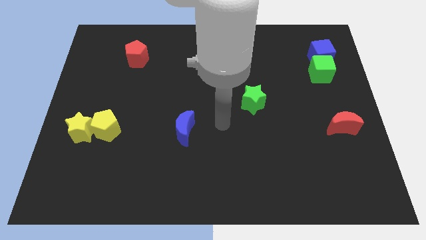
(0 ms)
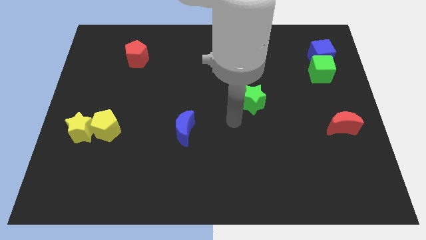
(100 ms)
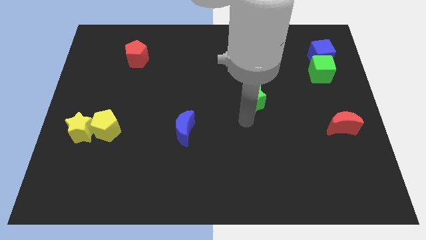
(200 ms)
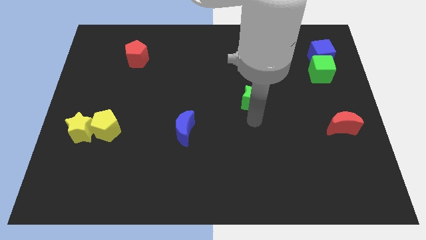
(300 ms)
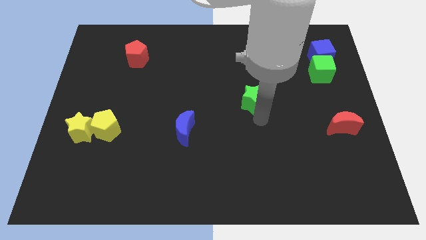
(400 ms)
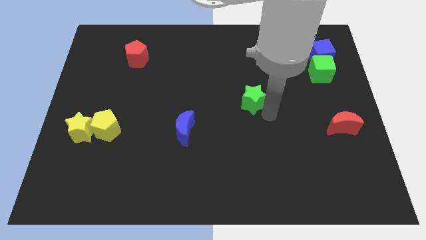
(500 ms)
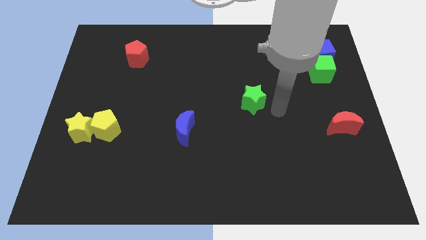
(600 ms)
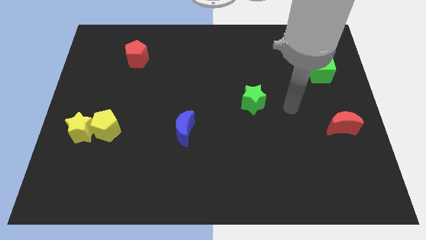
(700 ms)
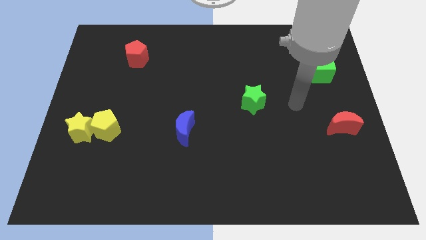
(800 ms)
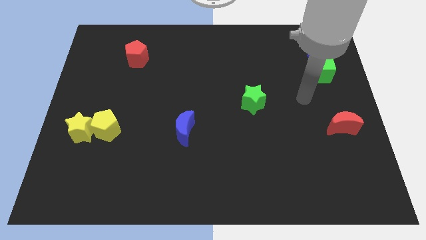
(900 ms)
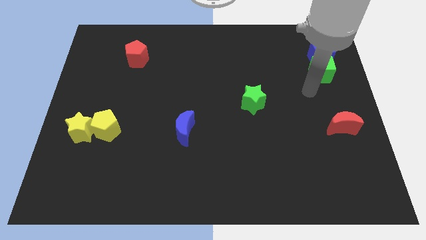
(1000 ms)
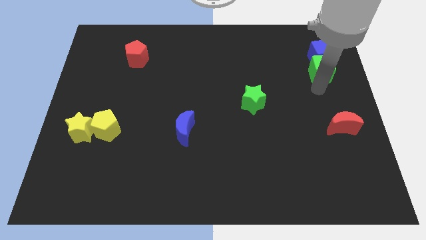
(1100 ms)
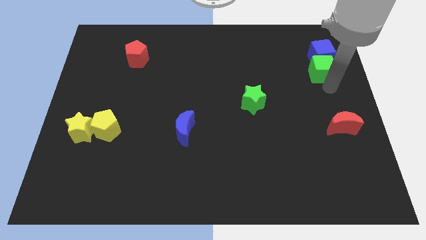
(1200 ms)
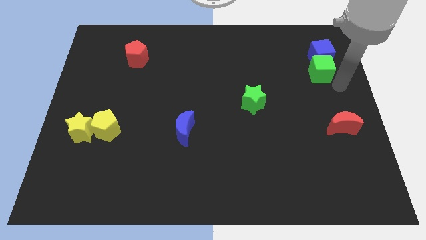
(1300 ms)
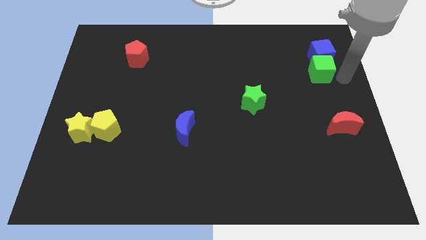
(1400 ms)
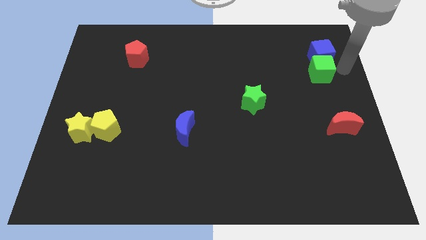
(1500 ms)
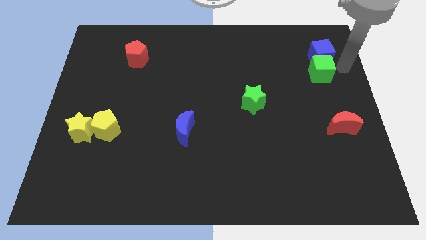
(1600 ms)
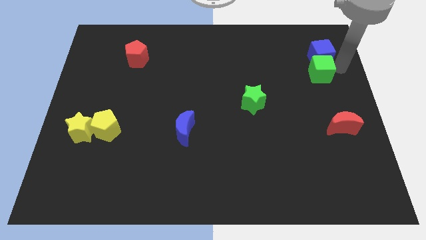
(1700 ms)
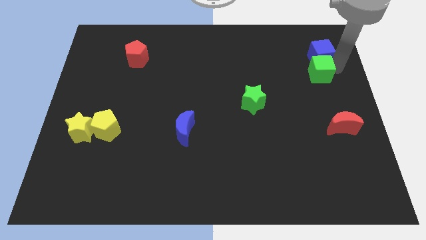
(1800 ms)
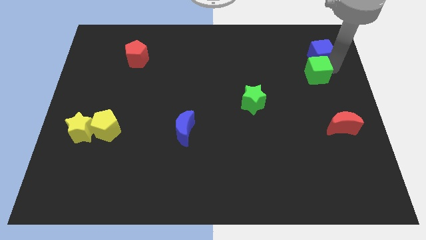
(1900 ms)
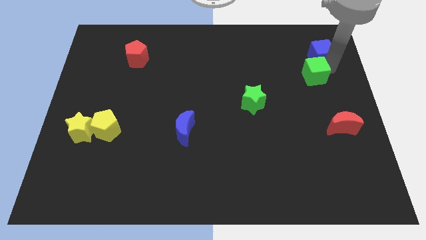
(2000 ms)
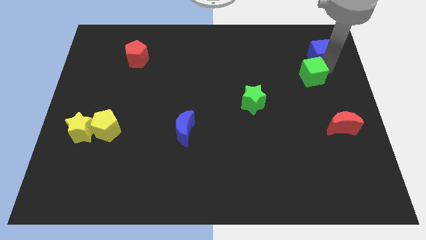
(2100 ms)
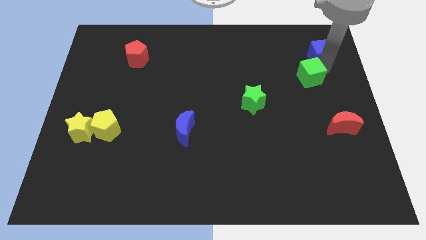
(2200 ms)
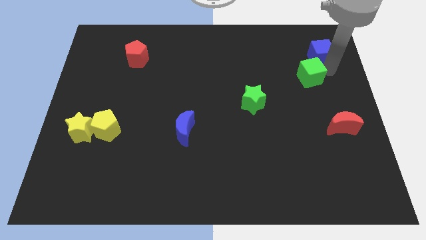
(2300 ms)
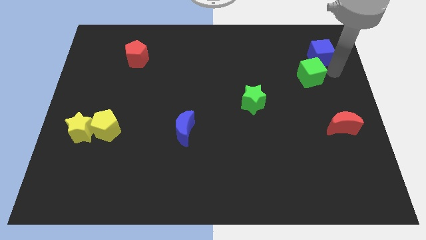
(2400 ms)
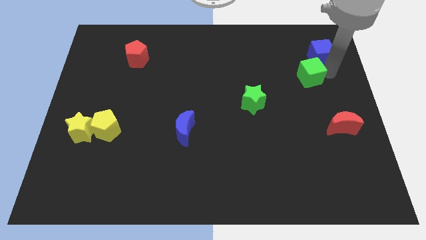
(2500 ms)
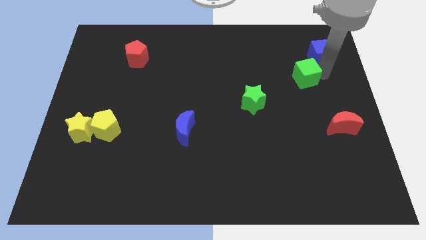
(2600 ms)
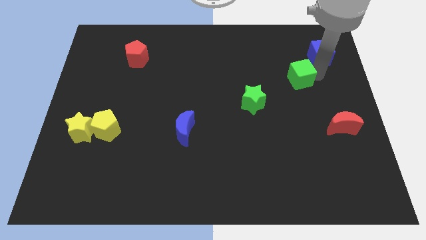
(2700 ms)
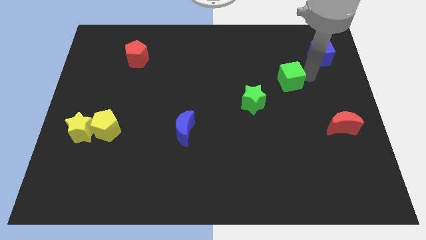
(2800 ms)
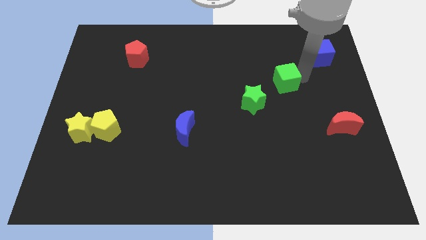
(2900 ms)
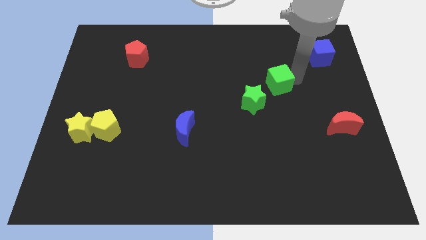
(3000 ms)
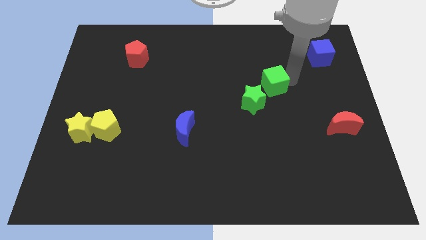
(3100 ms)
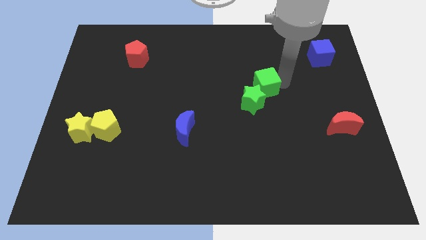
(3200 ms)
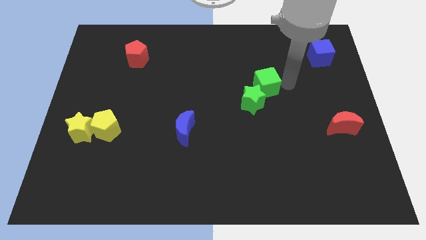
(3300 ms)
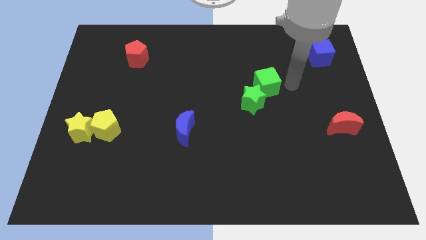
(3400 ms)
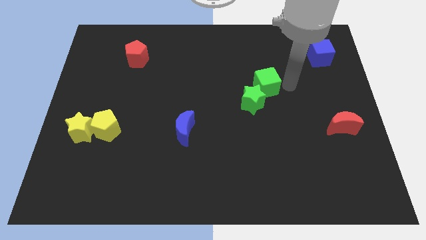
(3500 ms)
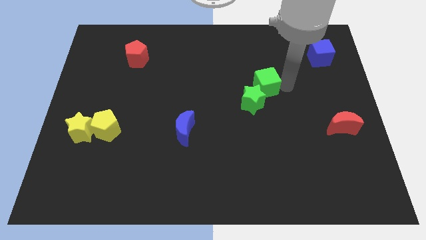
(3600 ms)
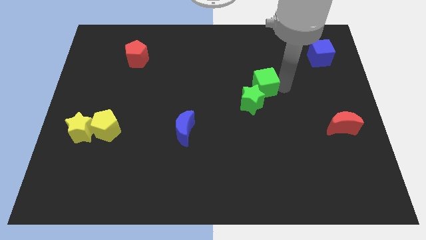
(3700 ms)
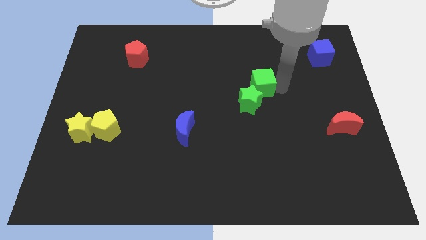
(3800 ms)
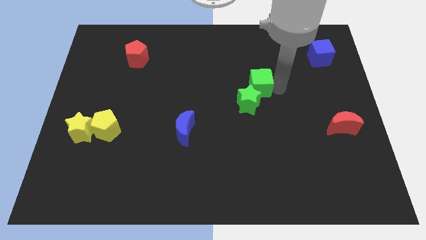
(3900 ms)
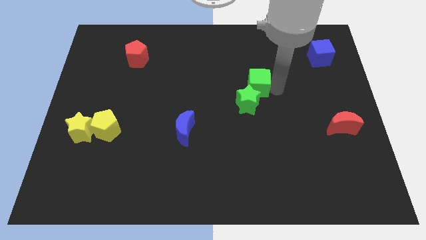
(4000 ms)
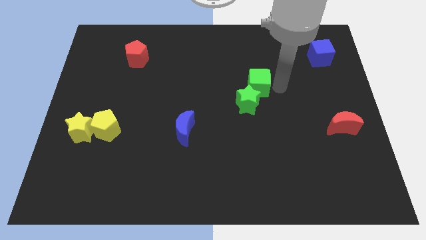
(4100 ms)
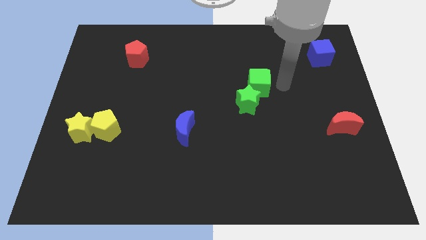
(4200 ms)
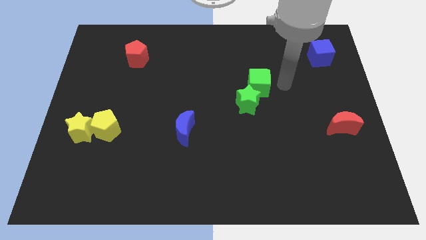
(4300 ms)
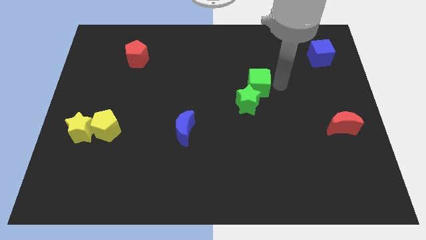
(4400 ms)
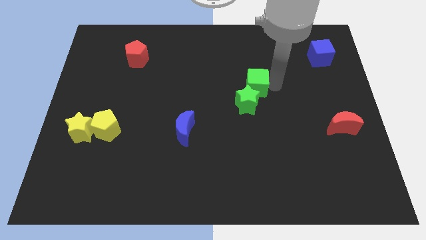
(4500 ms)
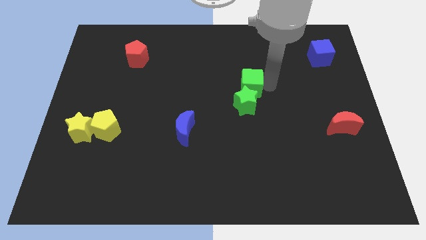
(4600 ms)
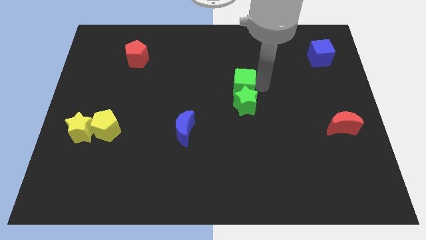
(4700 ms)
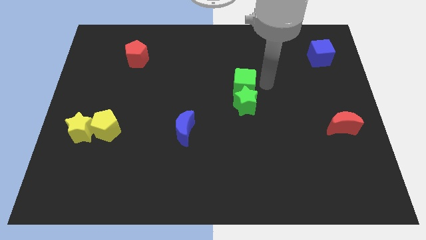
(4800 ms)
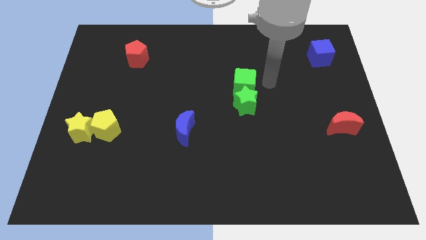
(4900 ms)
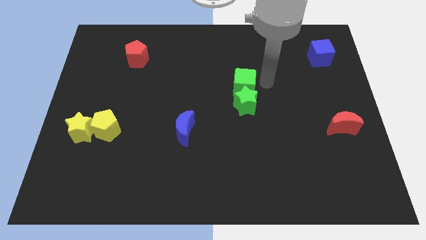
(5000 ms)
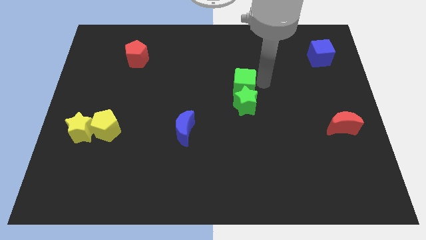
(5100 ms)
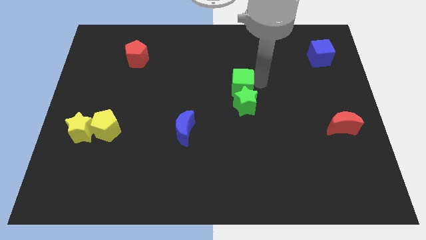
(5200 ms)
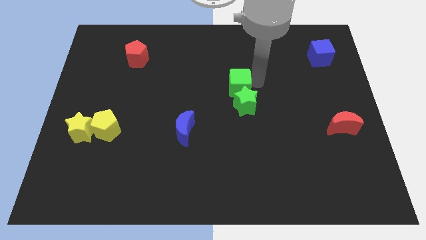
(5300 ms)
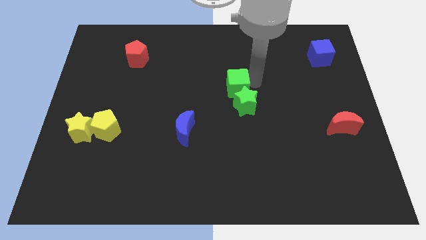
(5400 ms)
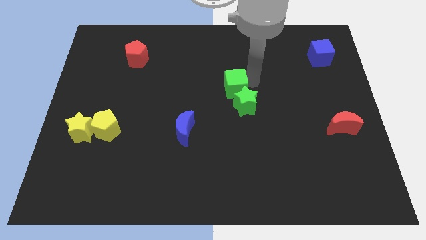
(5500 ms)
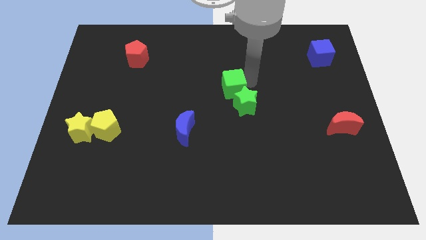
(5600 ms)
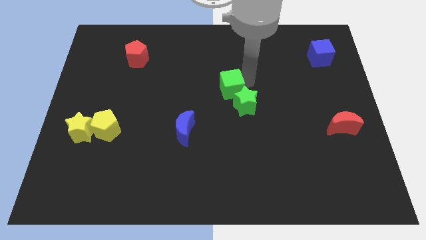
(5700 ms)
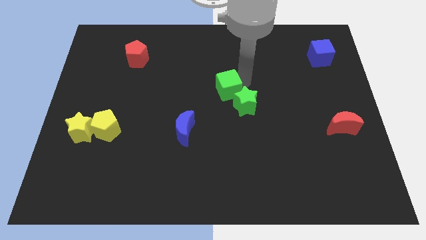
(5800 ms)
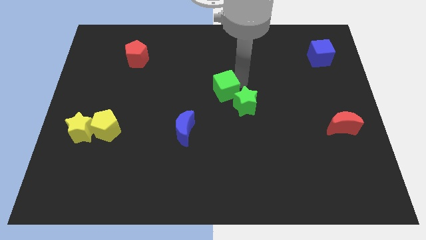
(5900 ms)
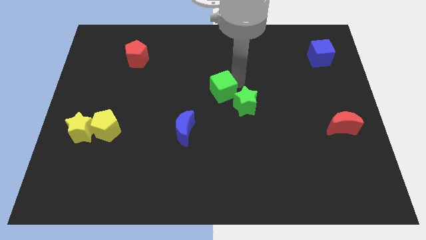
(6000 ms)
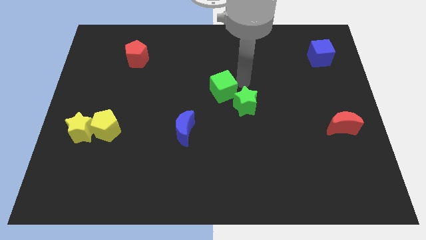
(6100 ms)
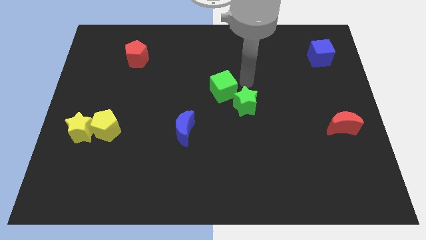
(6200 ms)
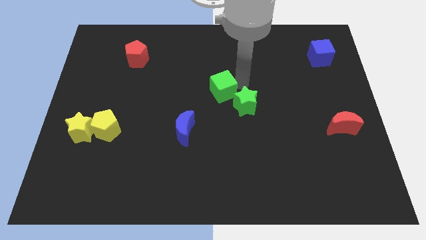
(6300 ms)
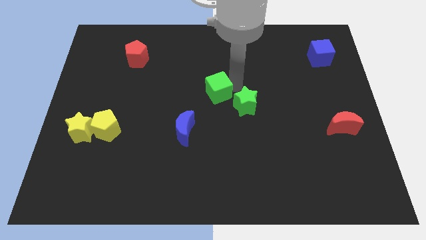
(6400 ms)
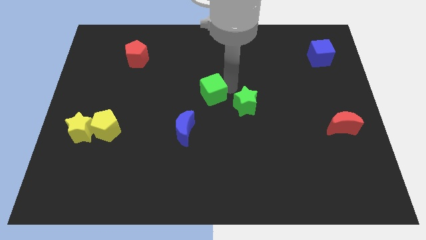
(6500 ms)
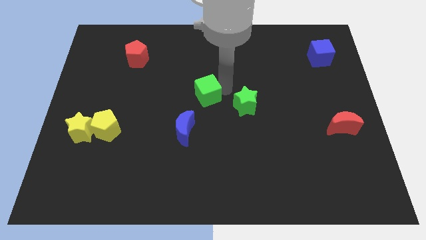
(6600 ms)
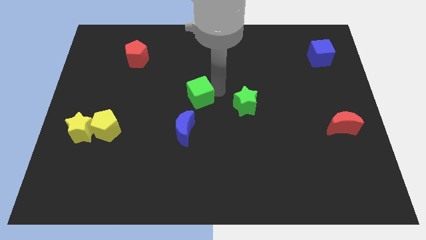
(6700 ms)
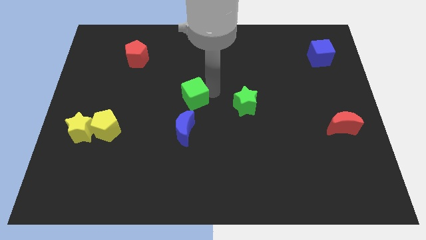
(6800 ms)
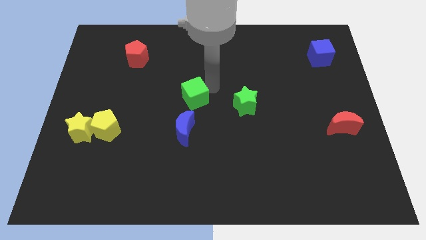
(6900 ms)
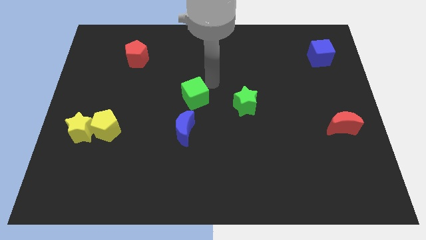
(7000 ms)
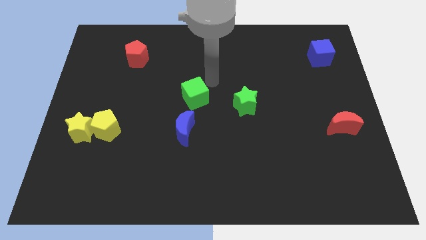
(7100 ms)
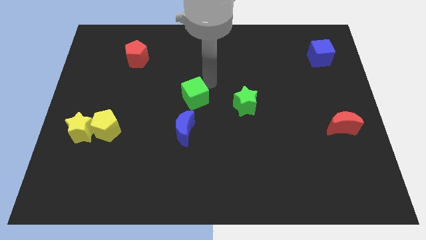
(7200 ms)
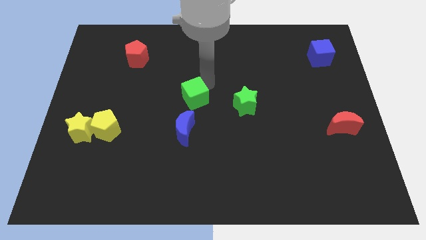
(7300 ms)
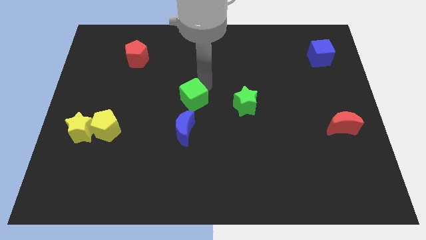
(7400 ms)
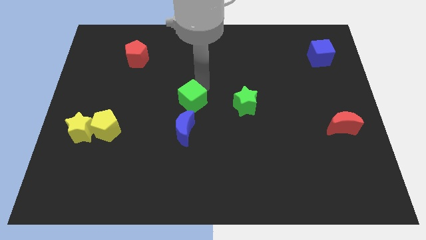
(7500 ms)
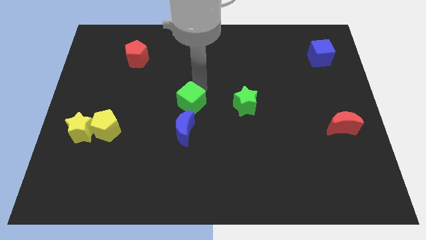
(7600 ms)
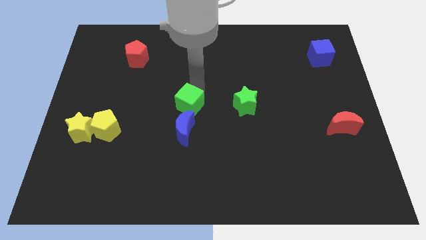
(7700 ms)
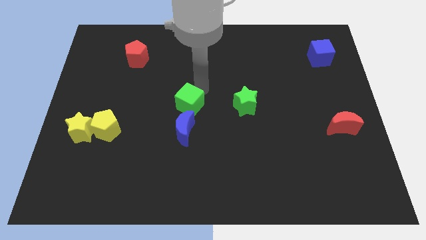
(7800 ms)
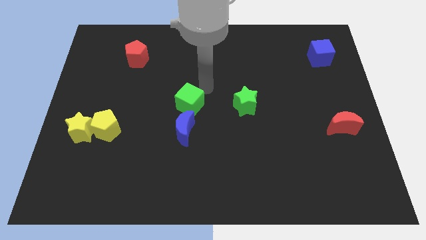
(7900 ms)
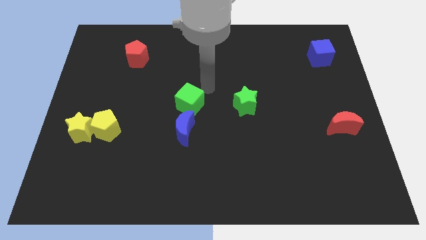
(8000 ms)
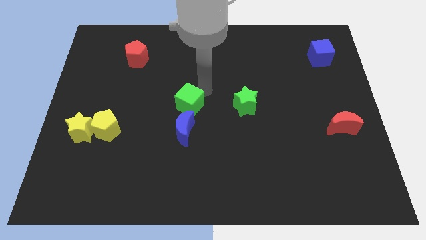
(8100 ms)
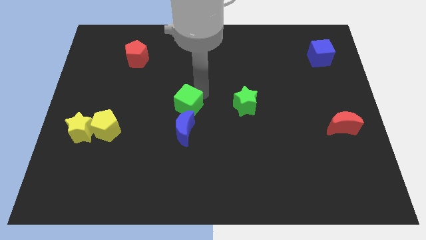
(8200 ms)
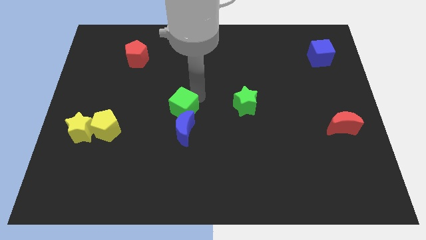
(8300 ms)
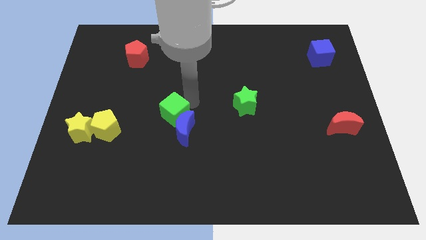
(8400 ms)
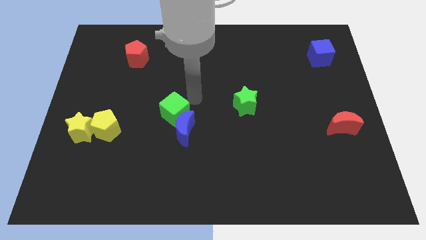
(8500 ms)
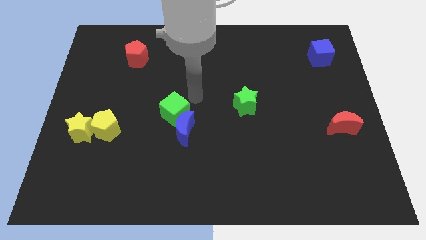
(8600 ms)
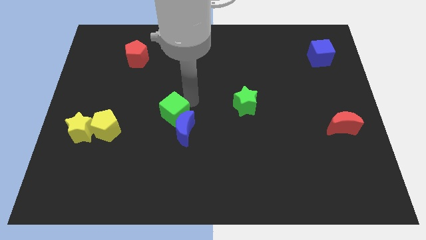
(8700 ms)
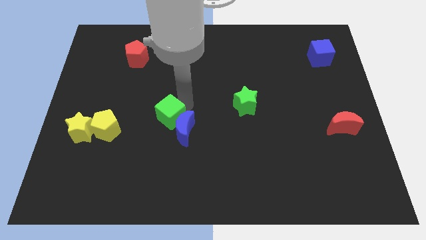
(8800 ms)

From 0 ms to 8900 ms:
push the green cube right of the yellow pentagon
